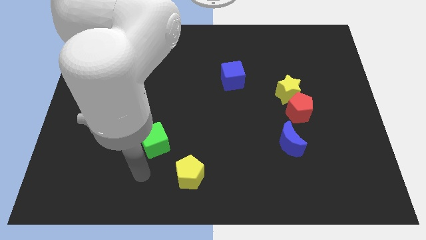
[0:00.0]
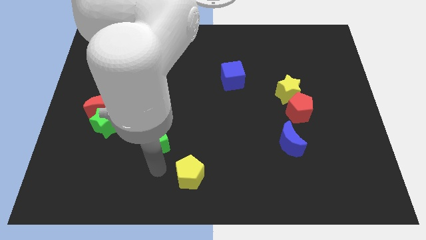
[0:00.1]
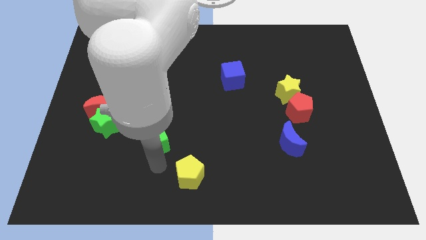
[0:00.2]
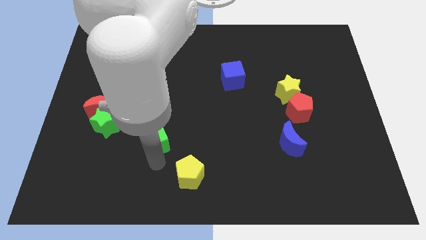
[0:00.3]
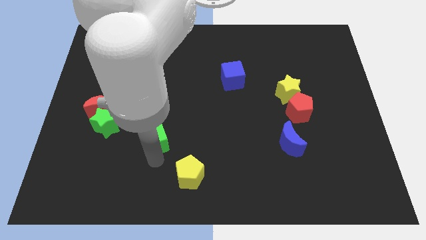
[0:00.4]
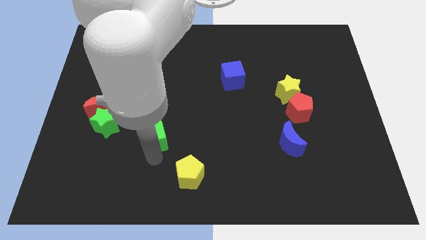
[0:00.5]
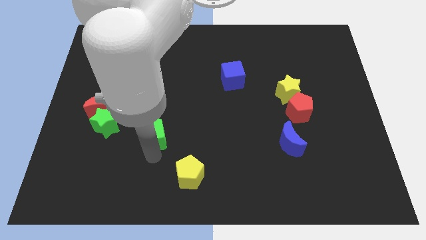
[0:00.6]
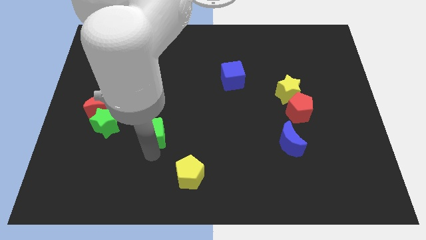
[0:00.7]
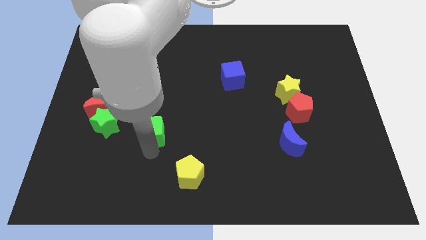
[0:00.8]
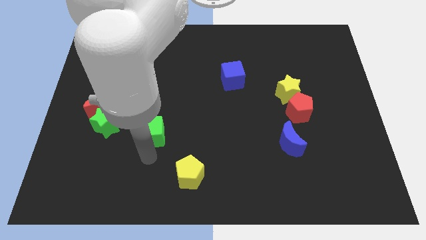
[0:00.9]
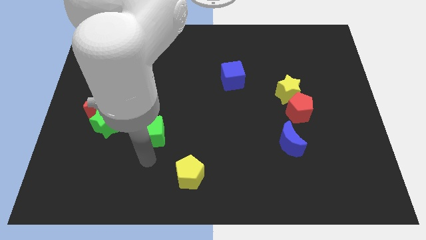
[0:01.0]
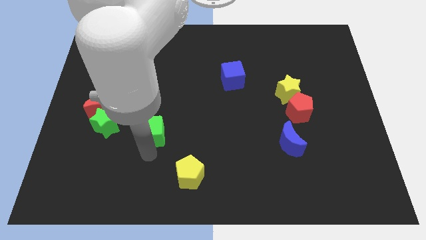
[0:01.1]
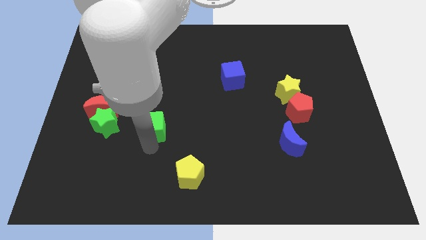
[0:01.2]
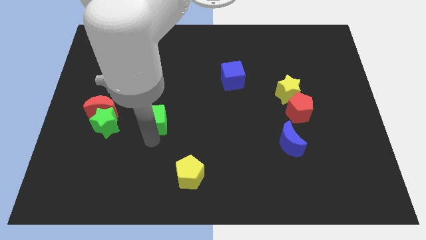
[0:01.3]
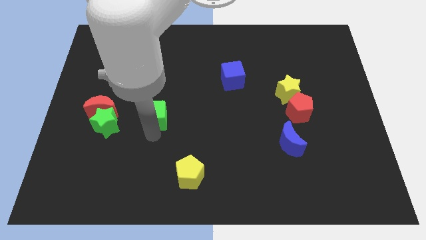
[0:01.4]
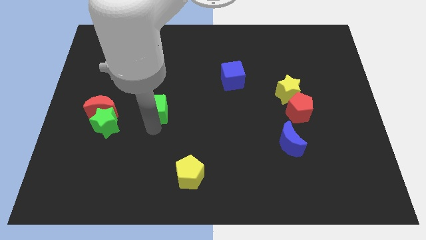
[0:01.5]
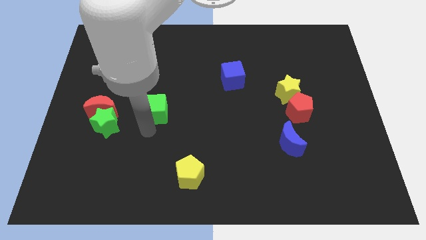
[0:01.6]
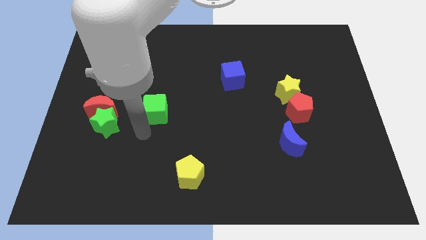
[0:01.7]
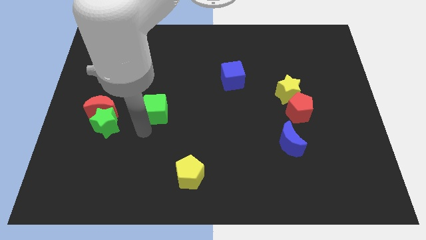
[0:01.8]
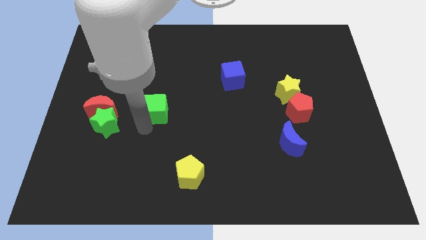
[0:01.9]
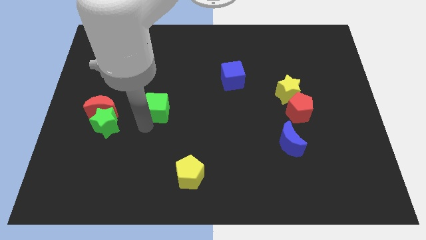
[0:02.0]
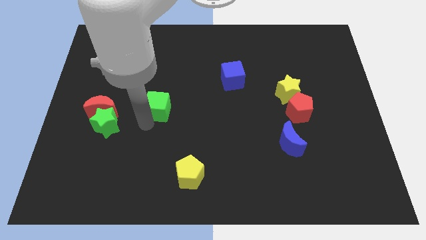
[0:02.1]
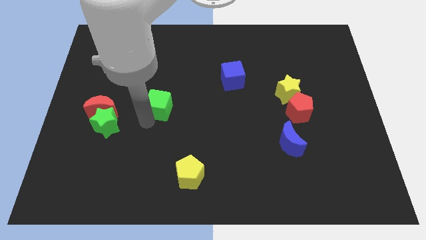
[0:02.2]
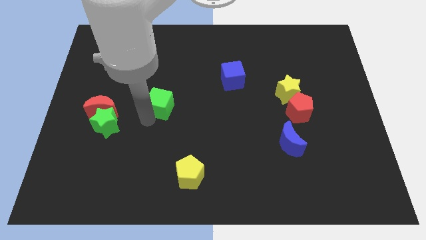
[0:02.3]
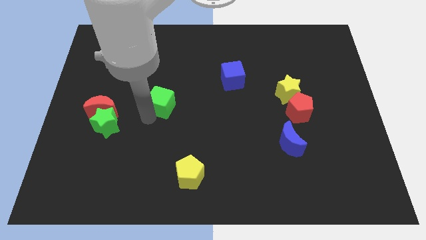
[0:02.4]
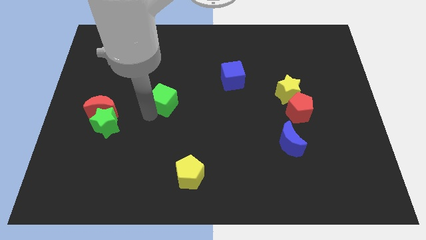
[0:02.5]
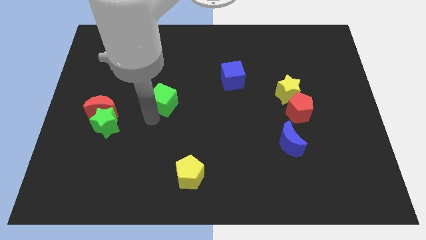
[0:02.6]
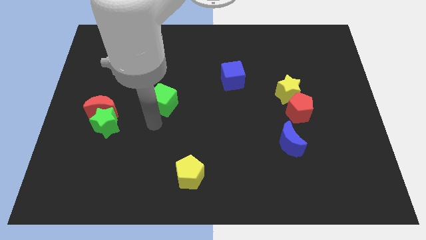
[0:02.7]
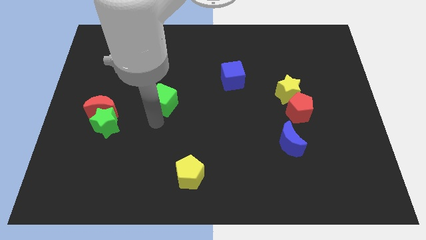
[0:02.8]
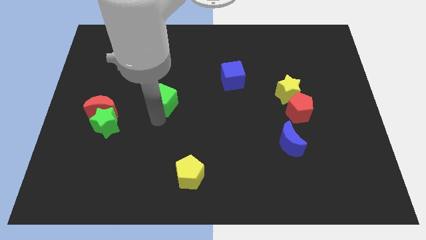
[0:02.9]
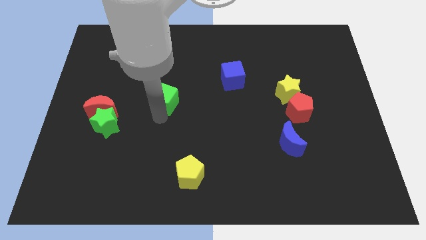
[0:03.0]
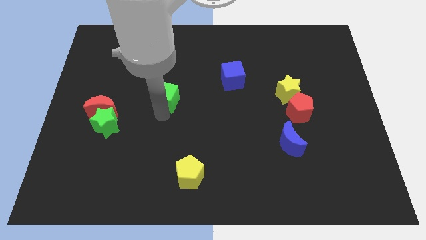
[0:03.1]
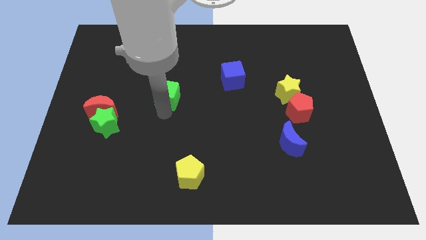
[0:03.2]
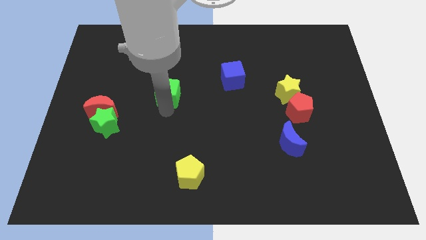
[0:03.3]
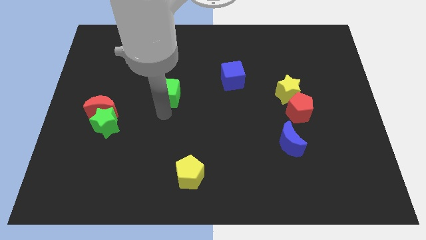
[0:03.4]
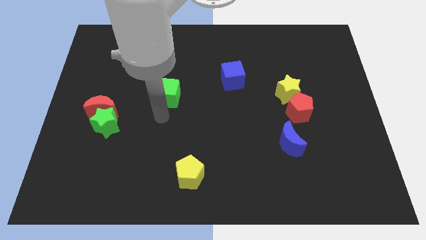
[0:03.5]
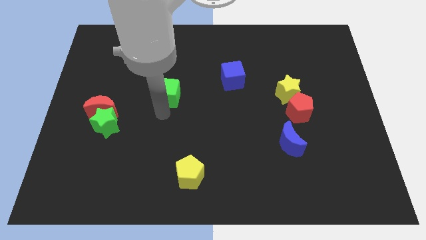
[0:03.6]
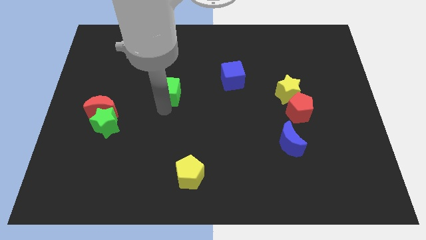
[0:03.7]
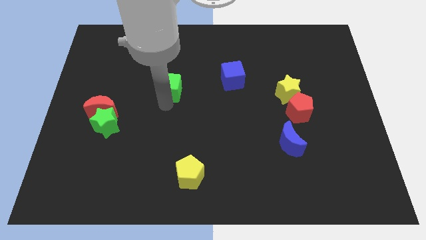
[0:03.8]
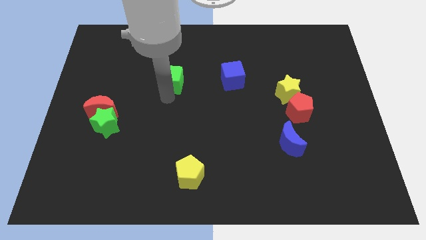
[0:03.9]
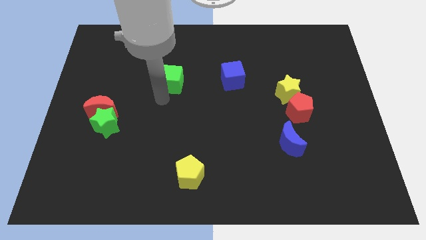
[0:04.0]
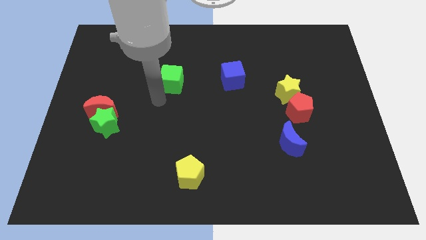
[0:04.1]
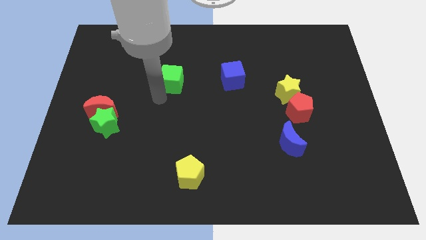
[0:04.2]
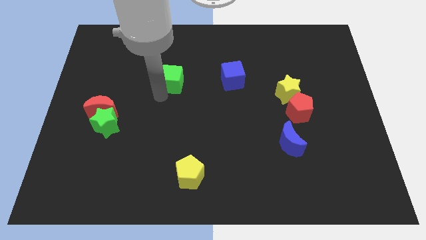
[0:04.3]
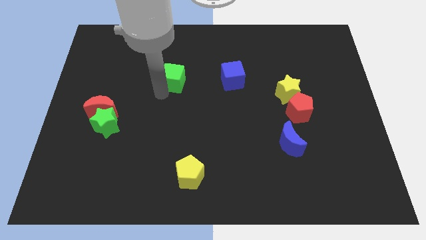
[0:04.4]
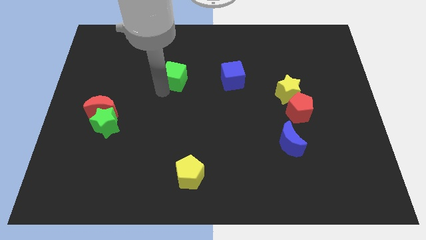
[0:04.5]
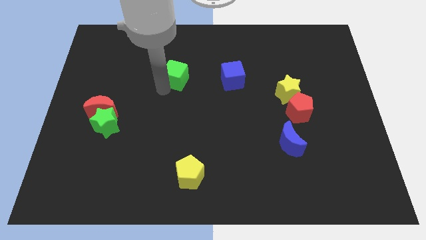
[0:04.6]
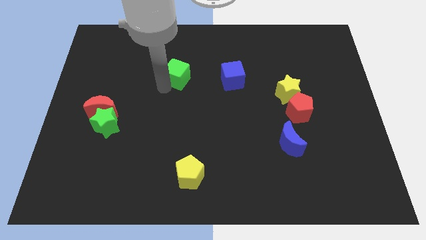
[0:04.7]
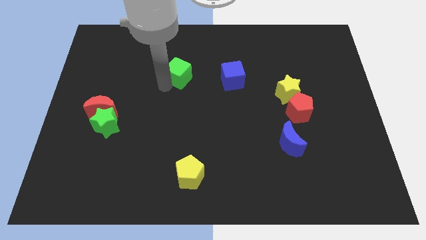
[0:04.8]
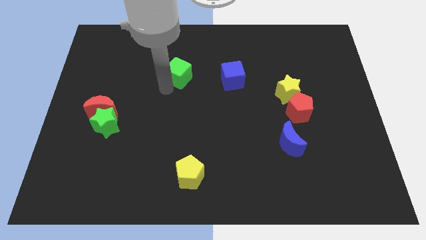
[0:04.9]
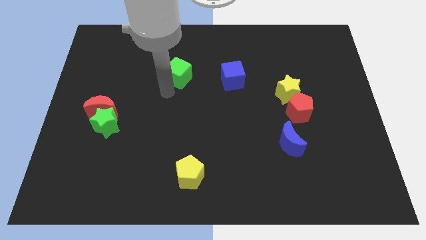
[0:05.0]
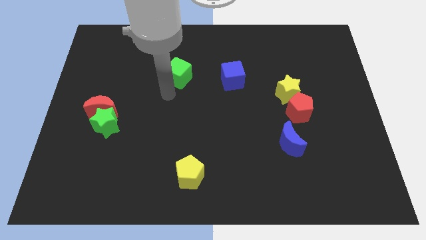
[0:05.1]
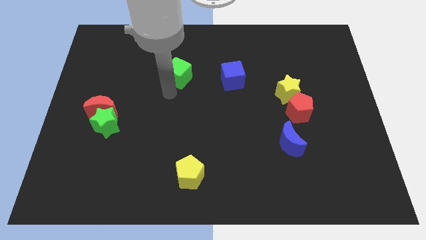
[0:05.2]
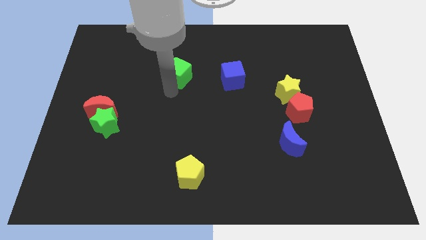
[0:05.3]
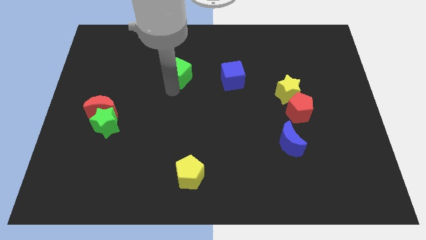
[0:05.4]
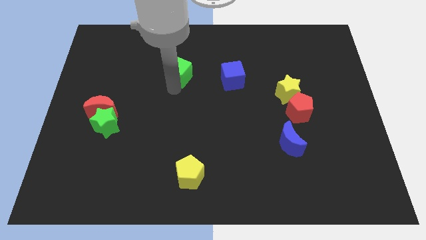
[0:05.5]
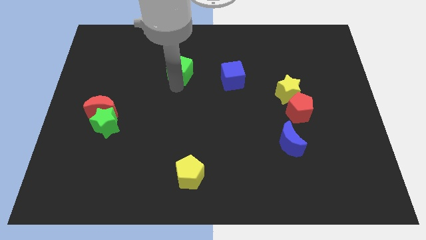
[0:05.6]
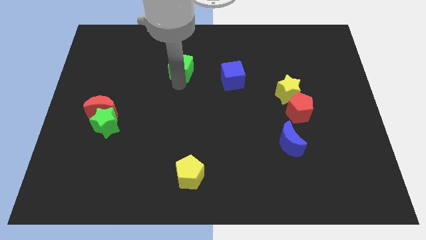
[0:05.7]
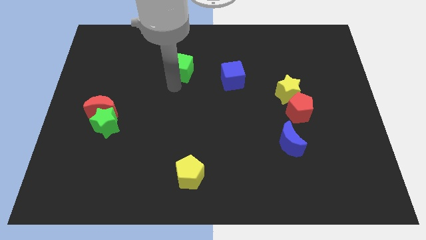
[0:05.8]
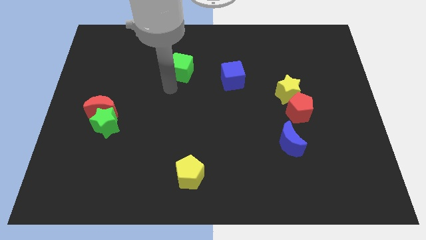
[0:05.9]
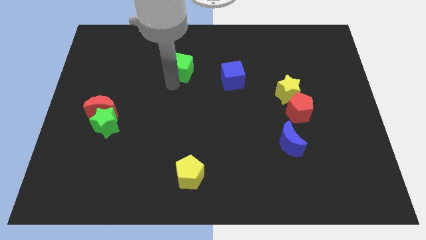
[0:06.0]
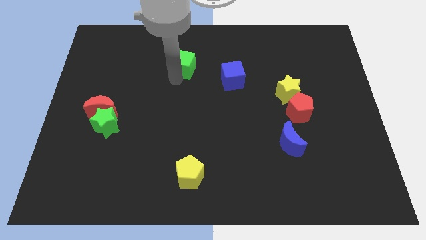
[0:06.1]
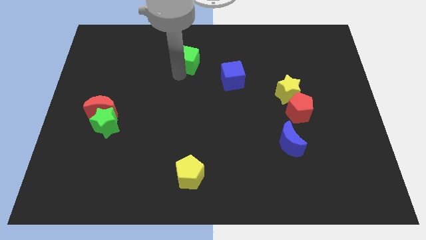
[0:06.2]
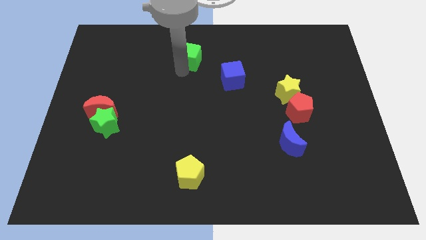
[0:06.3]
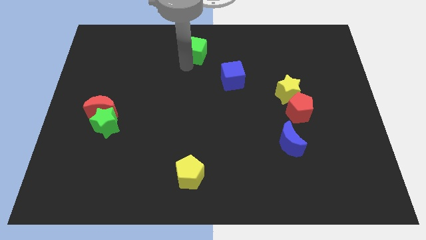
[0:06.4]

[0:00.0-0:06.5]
push the green cube to the top side

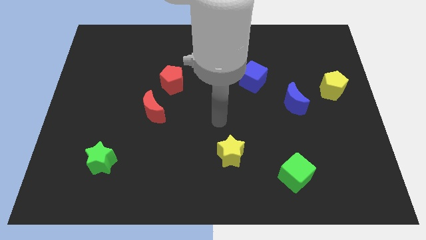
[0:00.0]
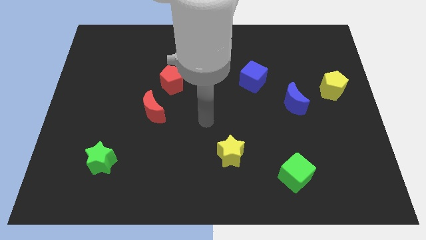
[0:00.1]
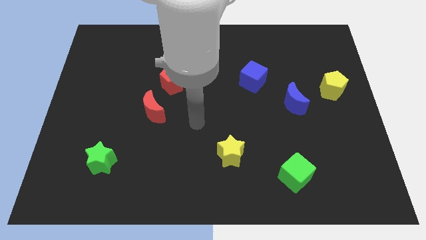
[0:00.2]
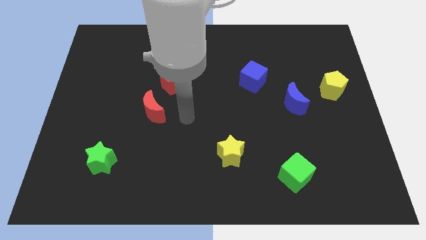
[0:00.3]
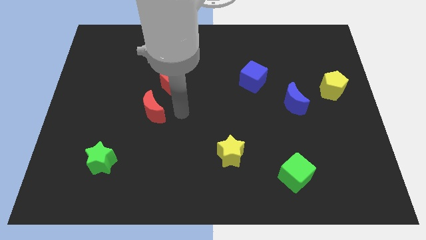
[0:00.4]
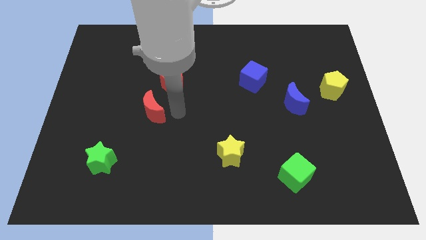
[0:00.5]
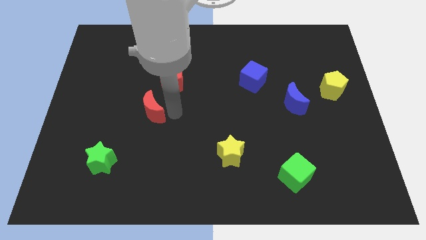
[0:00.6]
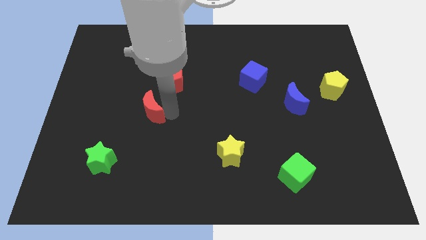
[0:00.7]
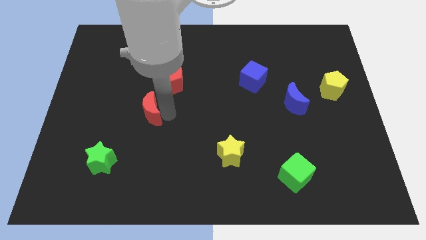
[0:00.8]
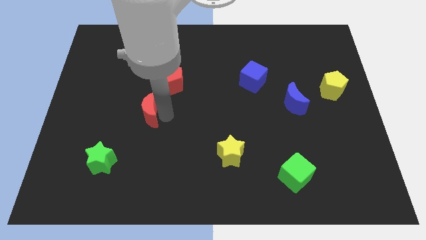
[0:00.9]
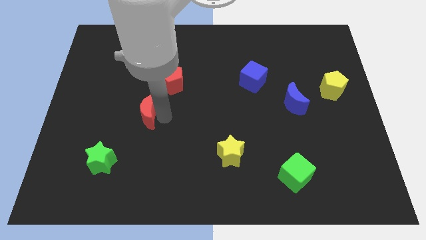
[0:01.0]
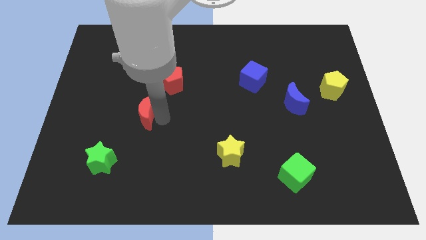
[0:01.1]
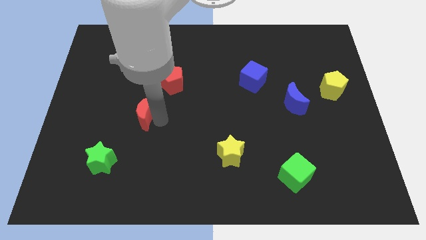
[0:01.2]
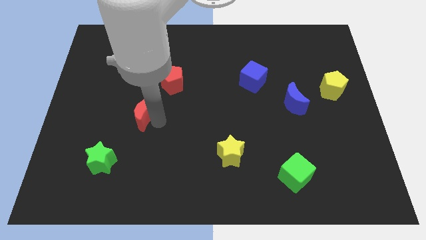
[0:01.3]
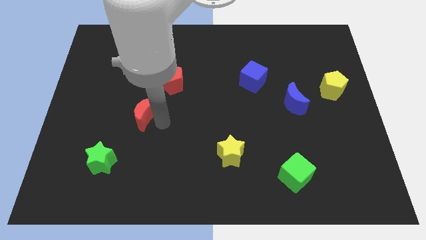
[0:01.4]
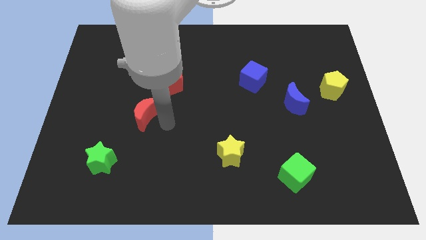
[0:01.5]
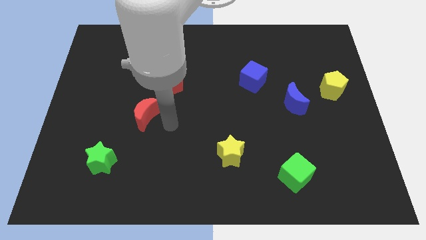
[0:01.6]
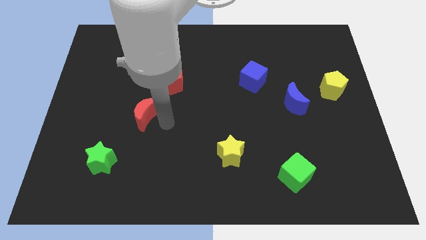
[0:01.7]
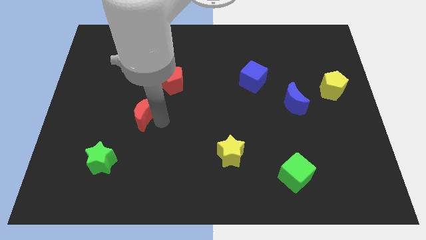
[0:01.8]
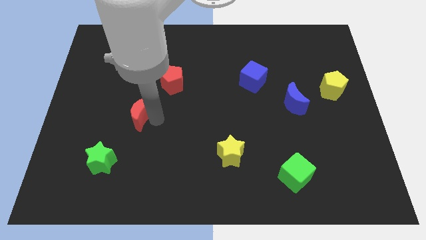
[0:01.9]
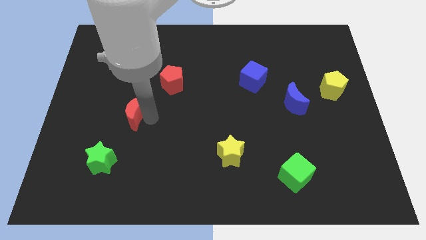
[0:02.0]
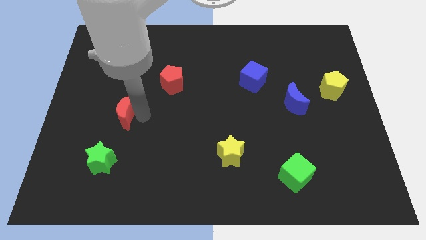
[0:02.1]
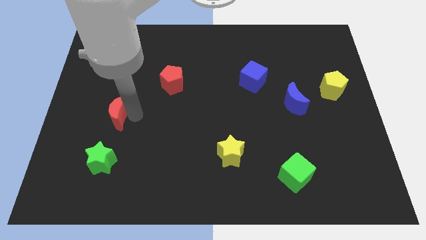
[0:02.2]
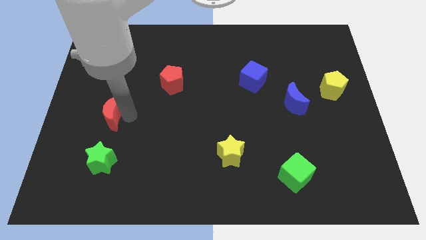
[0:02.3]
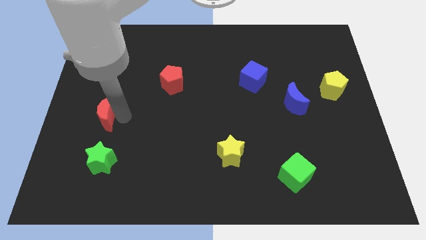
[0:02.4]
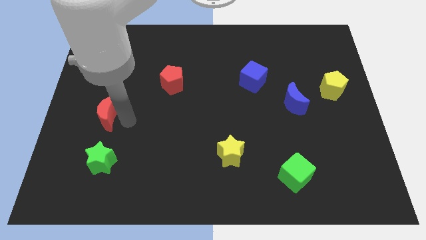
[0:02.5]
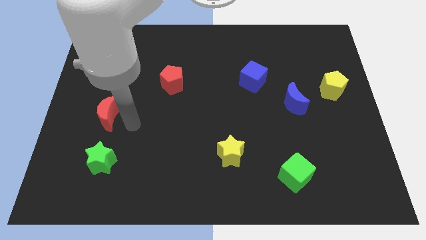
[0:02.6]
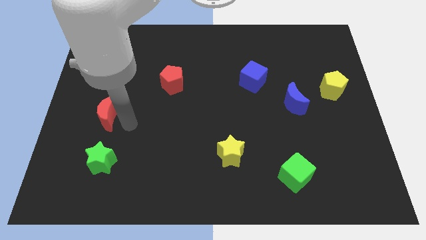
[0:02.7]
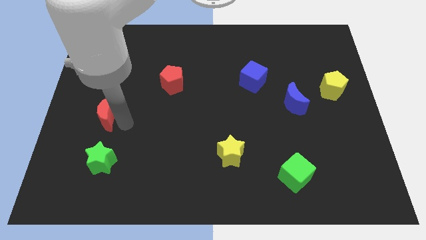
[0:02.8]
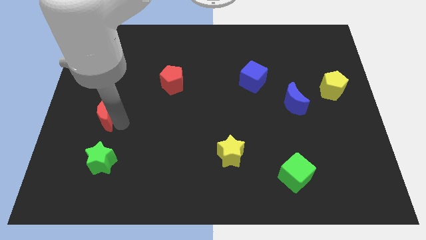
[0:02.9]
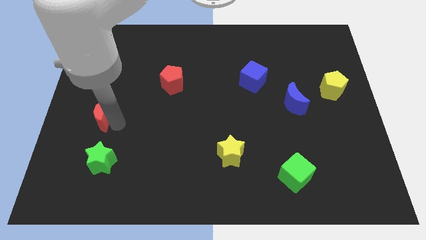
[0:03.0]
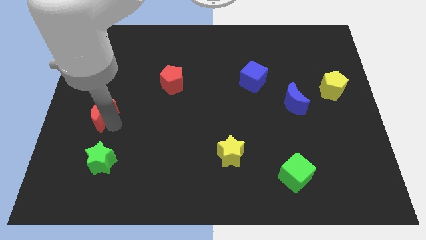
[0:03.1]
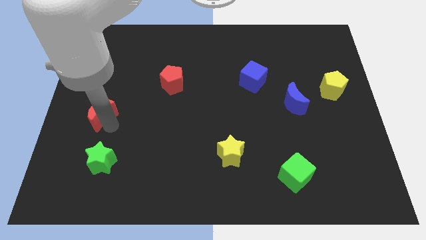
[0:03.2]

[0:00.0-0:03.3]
move the red moon to the left side
